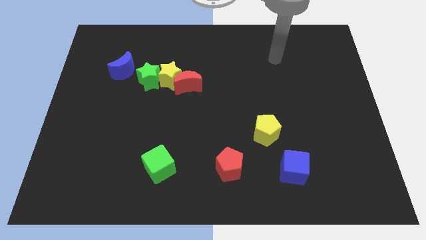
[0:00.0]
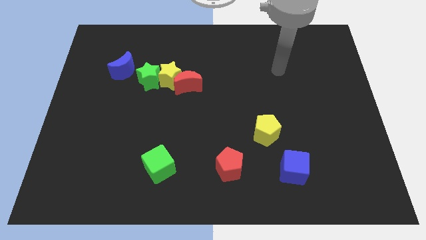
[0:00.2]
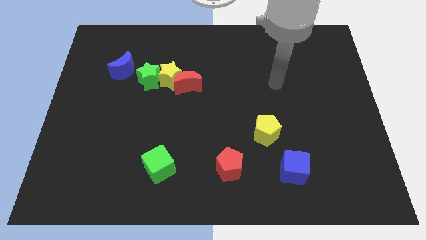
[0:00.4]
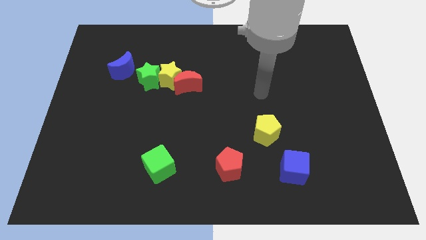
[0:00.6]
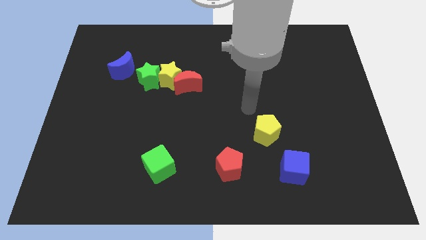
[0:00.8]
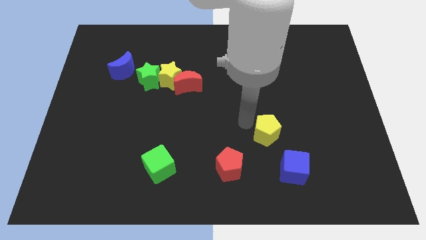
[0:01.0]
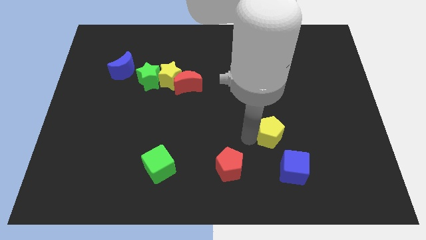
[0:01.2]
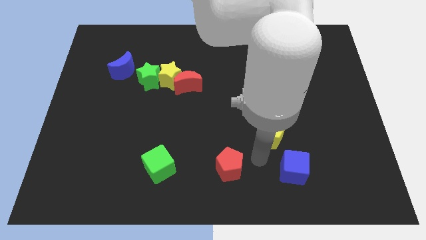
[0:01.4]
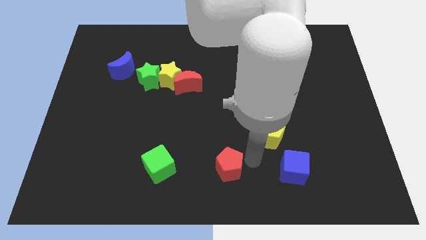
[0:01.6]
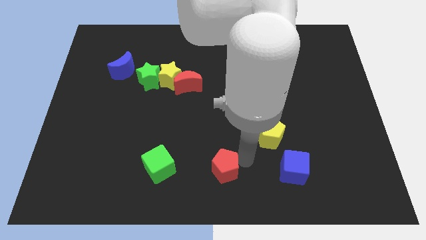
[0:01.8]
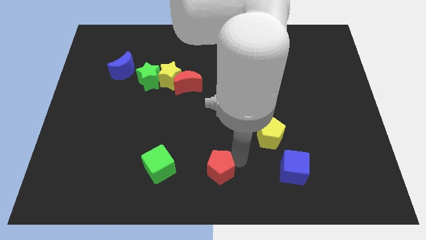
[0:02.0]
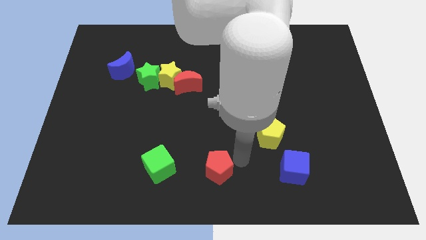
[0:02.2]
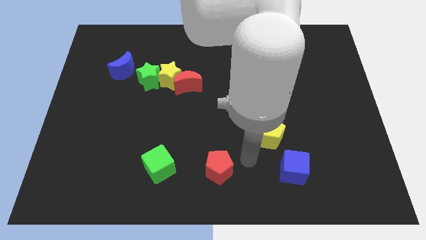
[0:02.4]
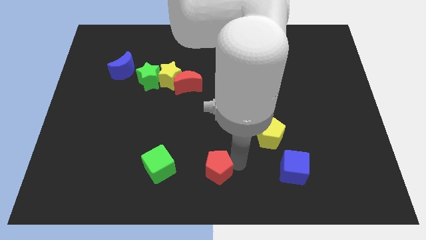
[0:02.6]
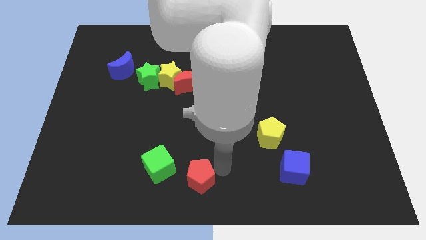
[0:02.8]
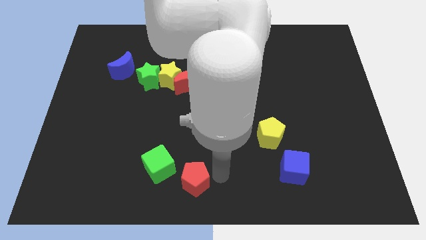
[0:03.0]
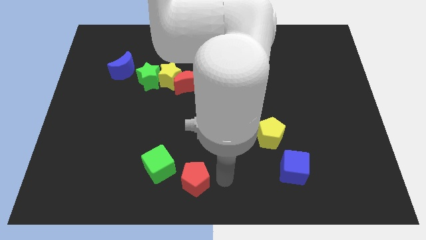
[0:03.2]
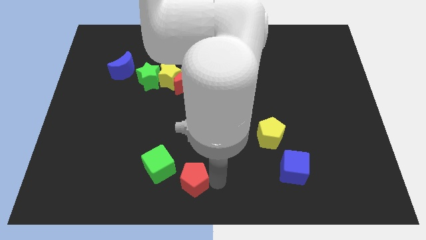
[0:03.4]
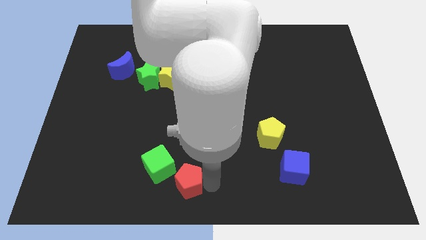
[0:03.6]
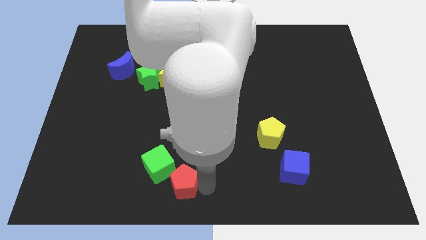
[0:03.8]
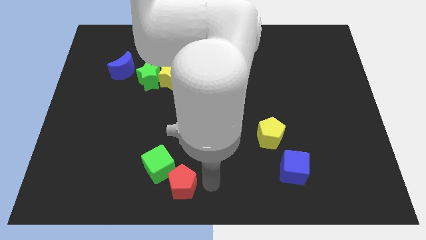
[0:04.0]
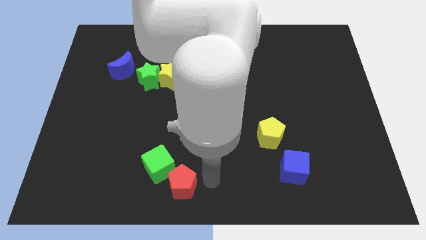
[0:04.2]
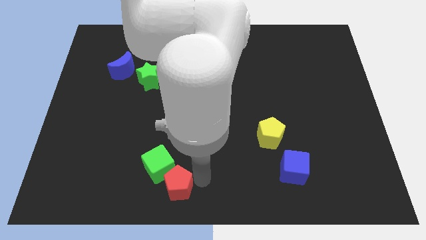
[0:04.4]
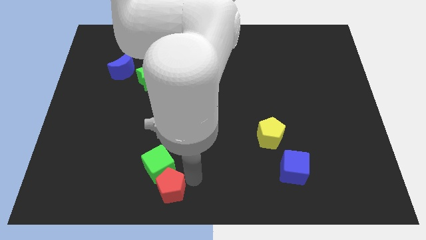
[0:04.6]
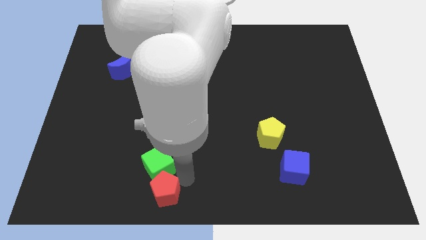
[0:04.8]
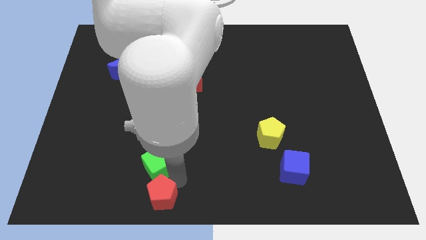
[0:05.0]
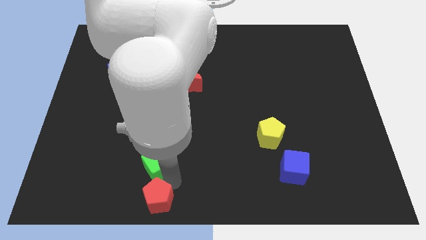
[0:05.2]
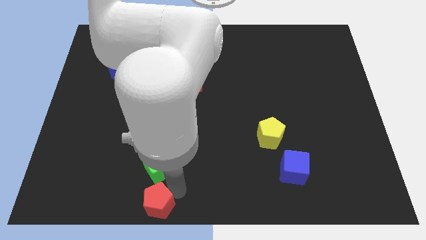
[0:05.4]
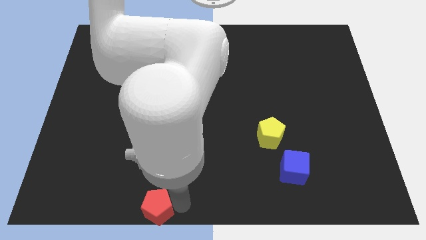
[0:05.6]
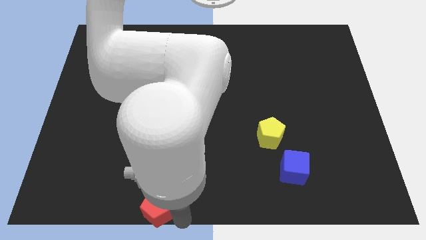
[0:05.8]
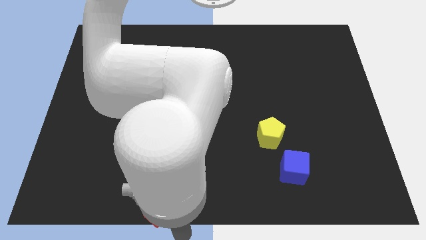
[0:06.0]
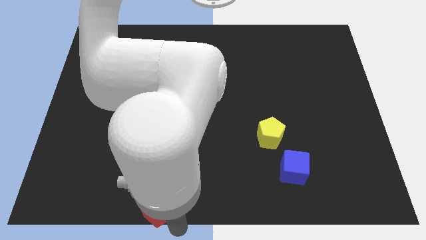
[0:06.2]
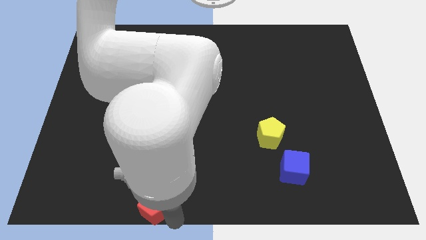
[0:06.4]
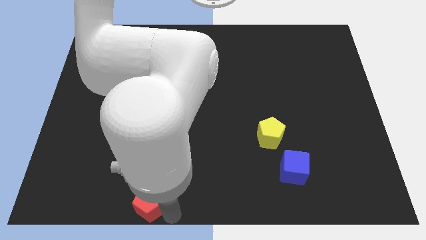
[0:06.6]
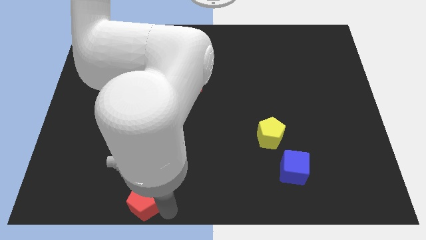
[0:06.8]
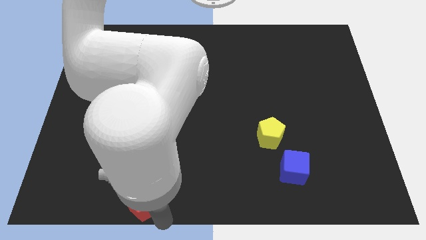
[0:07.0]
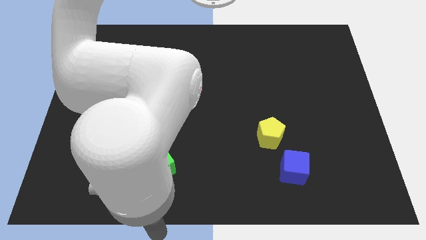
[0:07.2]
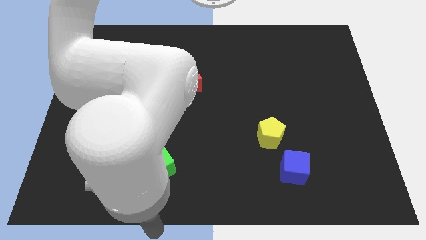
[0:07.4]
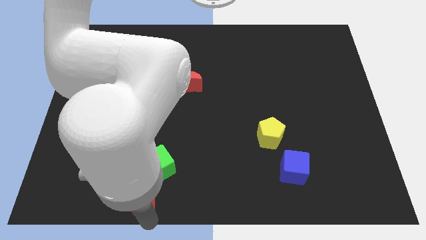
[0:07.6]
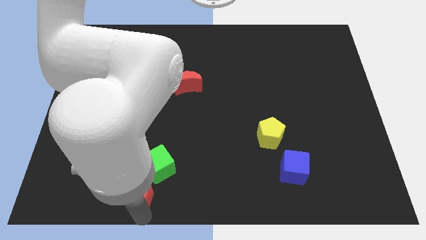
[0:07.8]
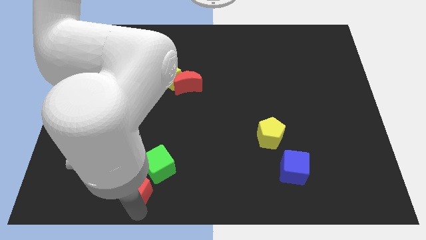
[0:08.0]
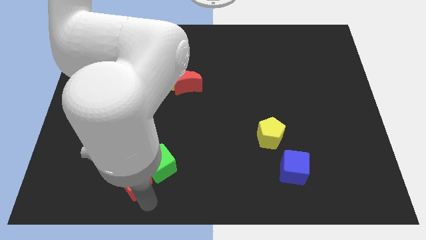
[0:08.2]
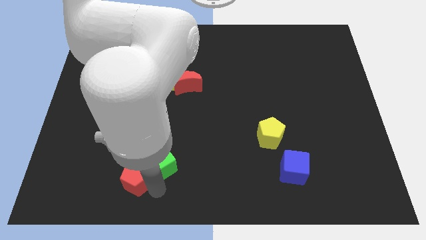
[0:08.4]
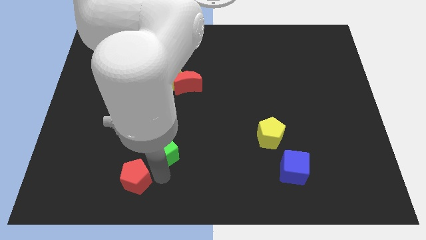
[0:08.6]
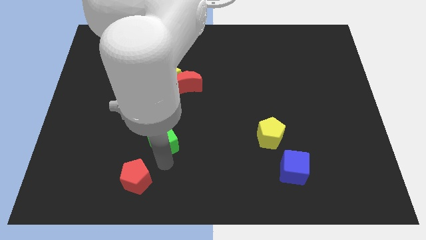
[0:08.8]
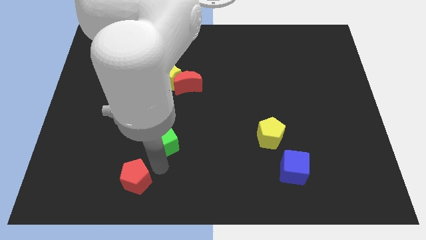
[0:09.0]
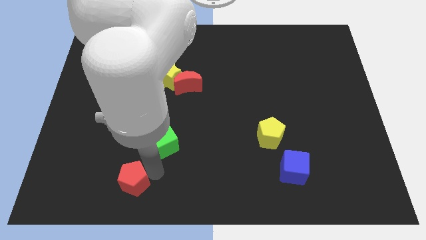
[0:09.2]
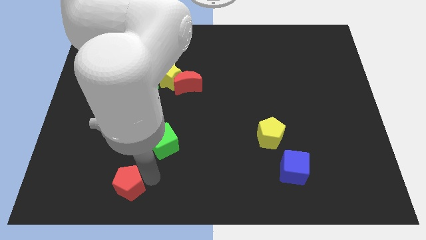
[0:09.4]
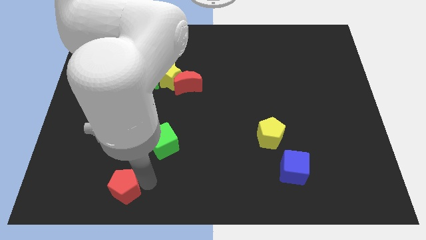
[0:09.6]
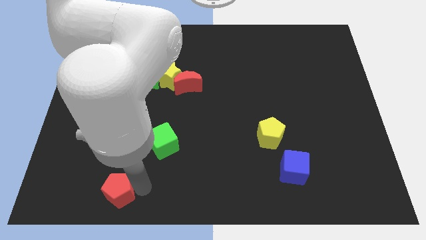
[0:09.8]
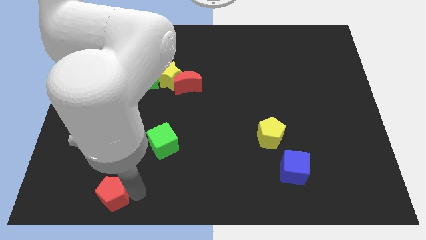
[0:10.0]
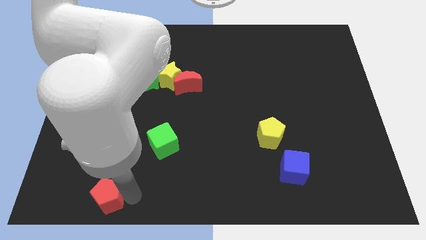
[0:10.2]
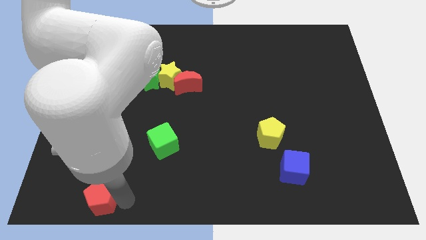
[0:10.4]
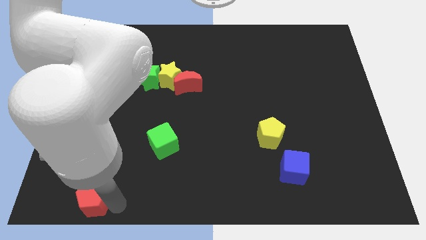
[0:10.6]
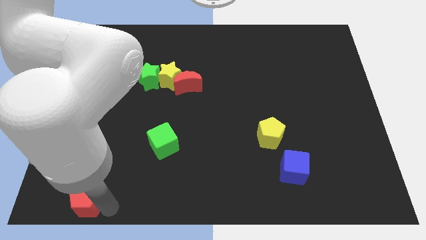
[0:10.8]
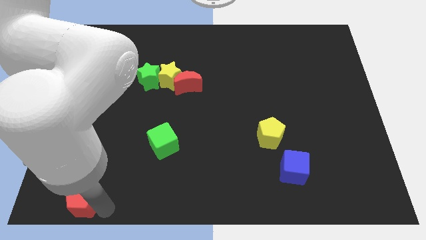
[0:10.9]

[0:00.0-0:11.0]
move the red pentagon to the bottom left corner
